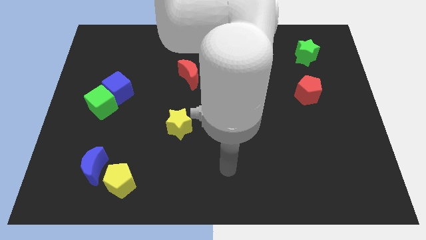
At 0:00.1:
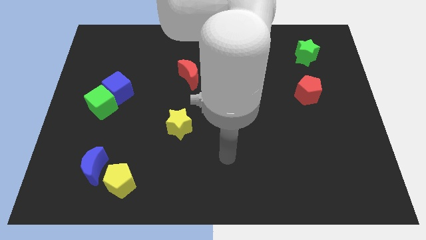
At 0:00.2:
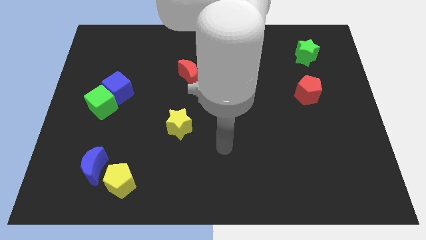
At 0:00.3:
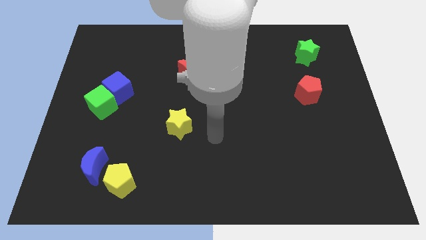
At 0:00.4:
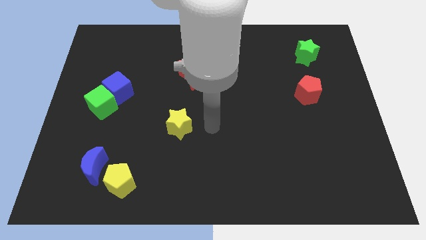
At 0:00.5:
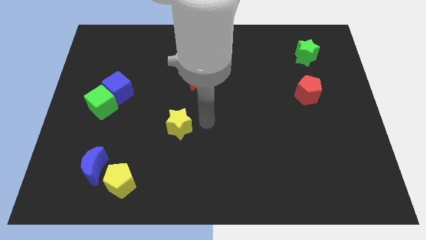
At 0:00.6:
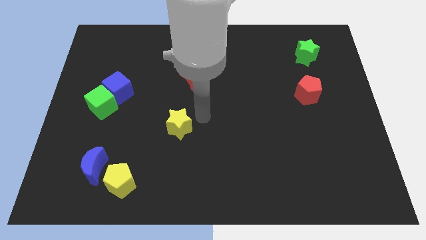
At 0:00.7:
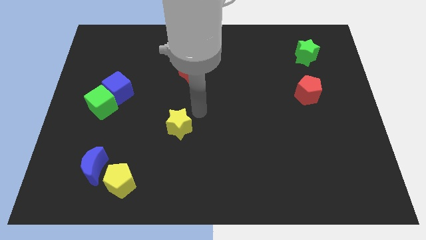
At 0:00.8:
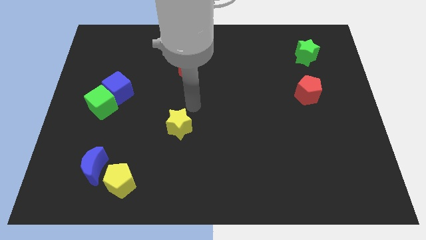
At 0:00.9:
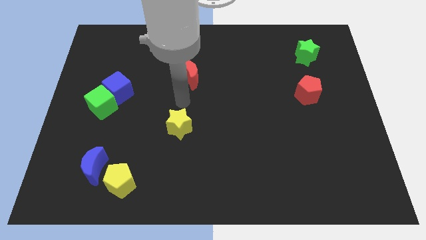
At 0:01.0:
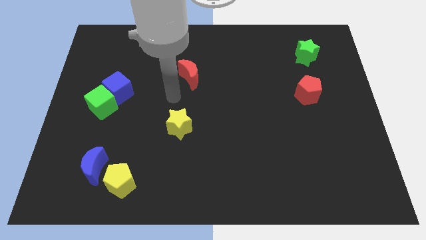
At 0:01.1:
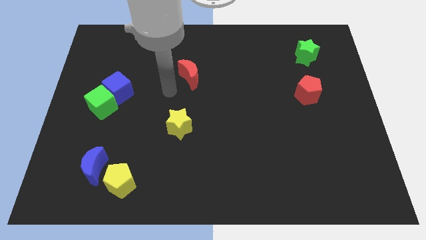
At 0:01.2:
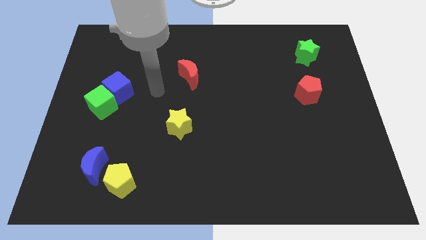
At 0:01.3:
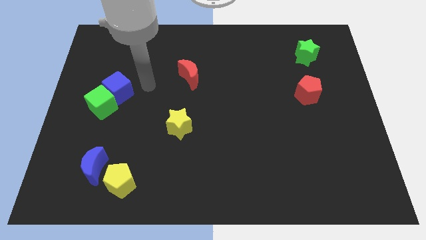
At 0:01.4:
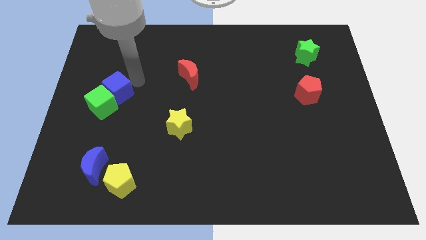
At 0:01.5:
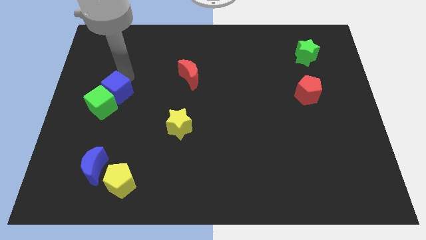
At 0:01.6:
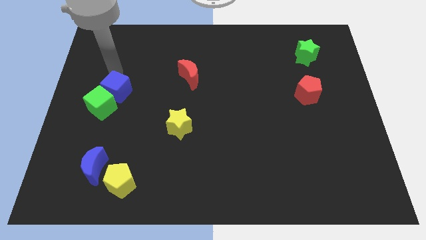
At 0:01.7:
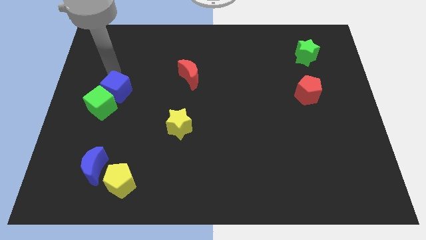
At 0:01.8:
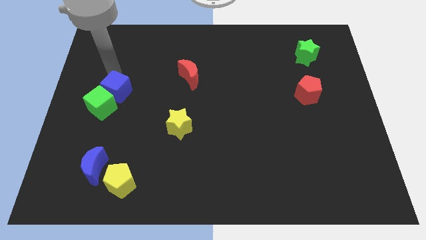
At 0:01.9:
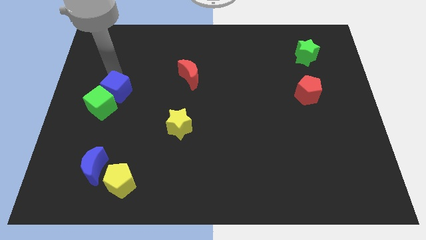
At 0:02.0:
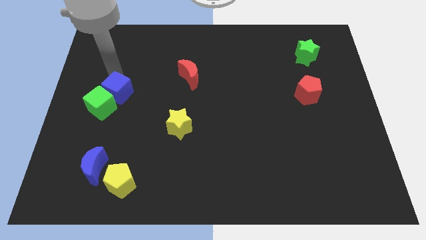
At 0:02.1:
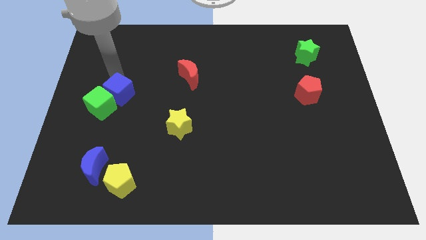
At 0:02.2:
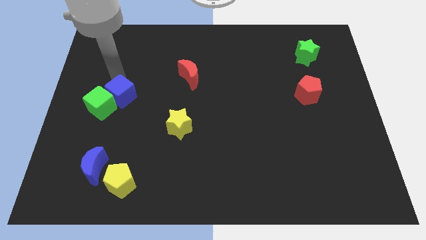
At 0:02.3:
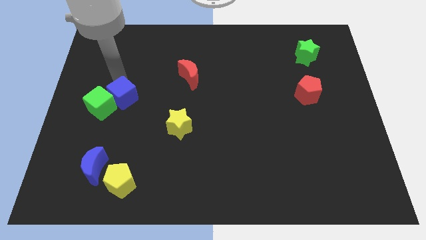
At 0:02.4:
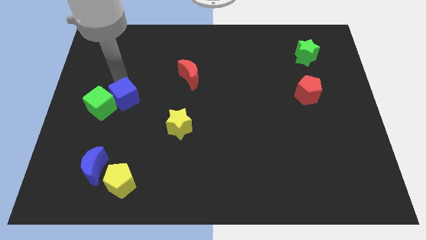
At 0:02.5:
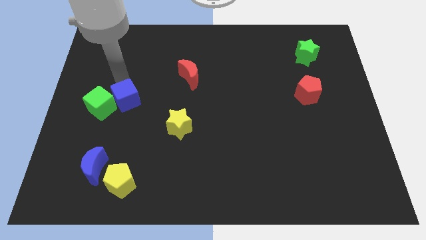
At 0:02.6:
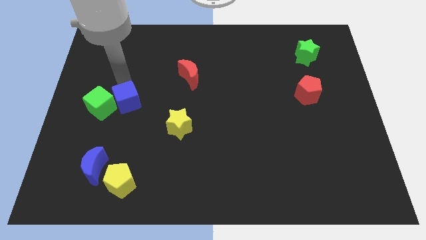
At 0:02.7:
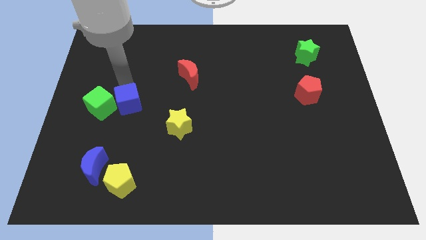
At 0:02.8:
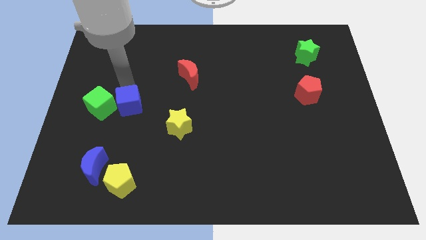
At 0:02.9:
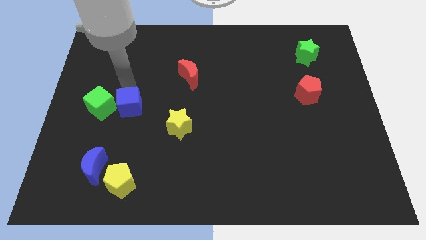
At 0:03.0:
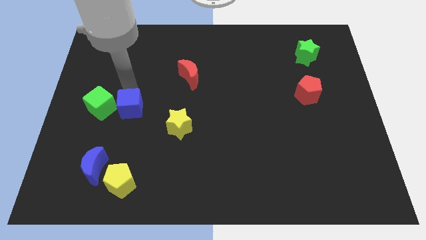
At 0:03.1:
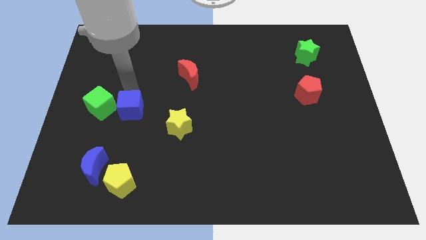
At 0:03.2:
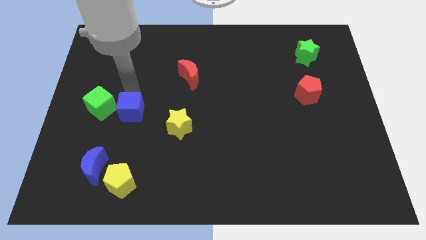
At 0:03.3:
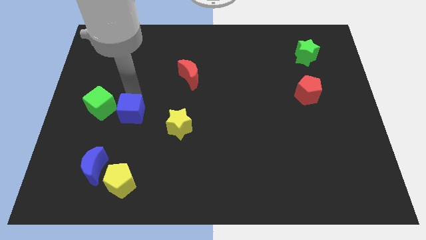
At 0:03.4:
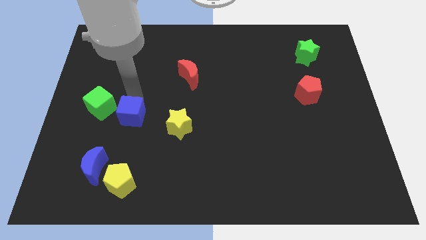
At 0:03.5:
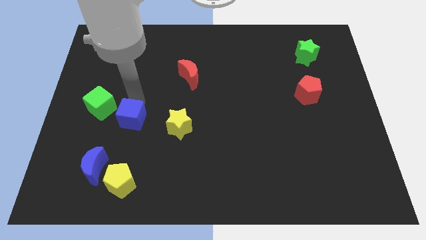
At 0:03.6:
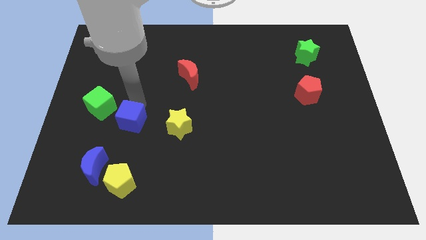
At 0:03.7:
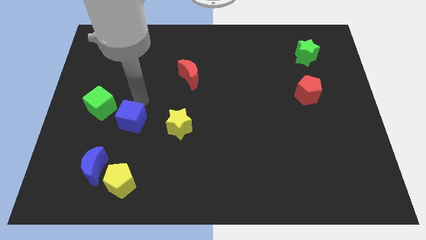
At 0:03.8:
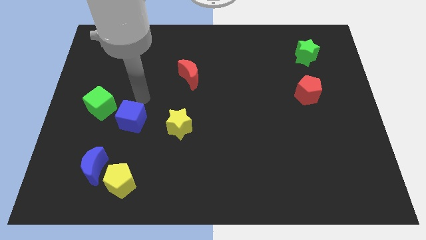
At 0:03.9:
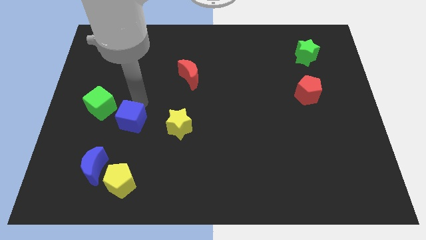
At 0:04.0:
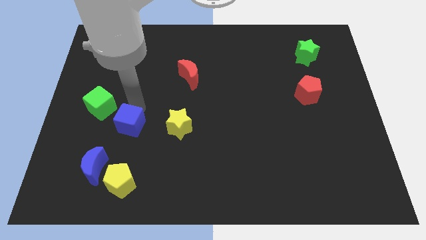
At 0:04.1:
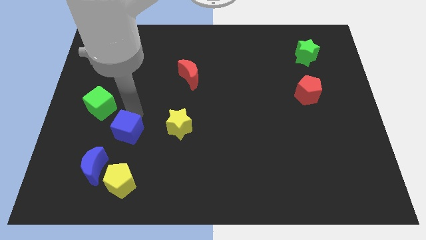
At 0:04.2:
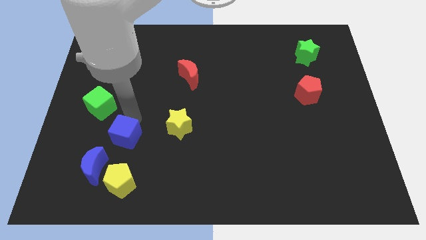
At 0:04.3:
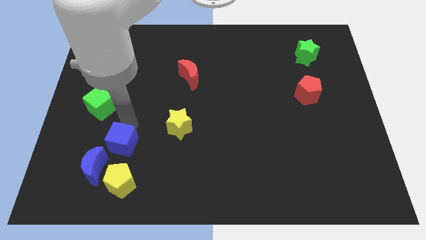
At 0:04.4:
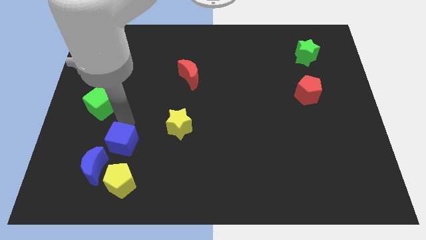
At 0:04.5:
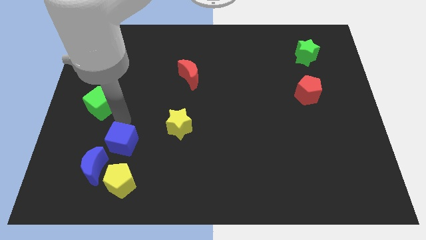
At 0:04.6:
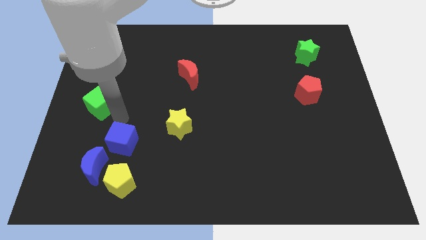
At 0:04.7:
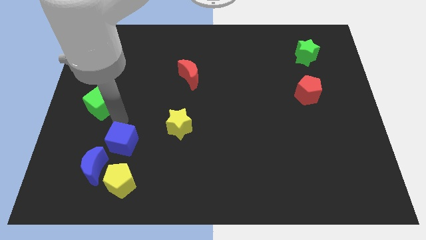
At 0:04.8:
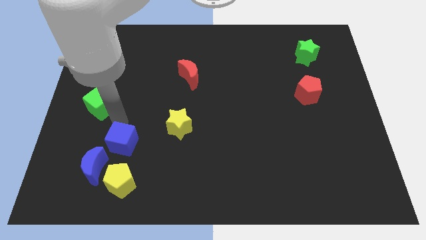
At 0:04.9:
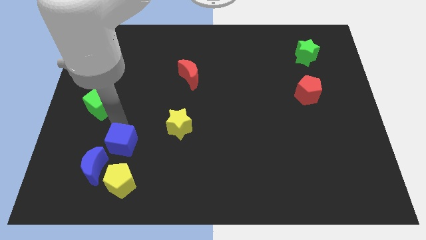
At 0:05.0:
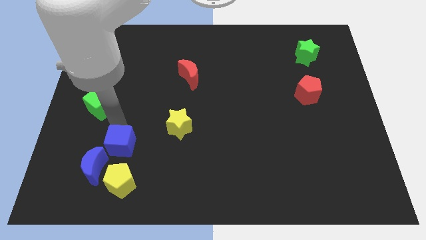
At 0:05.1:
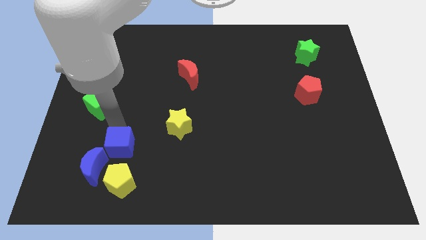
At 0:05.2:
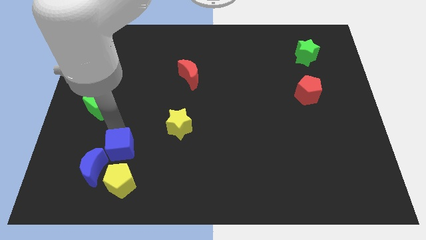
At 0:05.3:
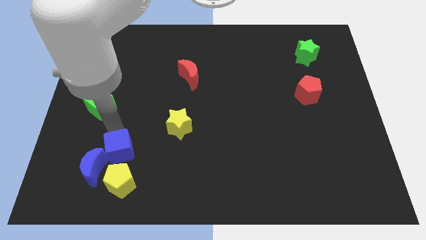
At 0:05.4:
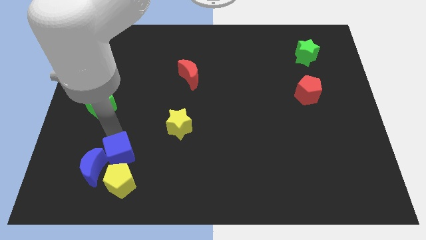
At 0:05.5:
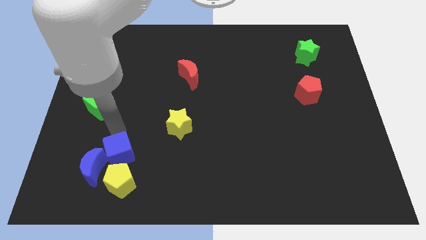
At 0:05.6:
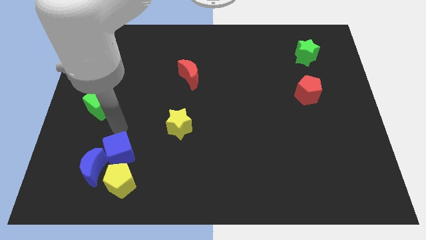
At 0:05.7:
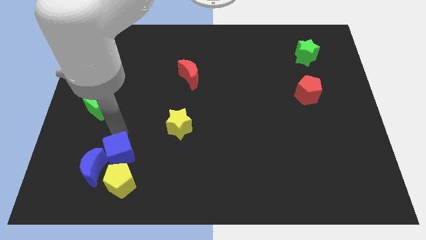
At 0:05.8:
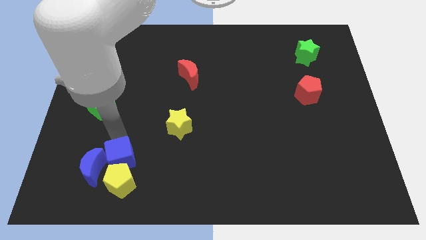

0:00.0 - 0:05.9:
slide the blue cube towards the yellow pentagon

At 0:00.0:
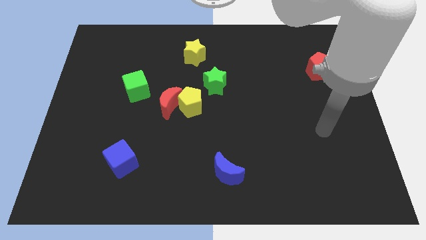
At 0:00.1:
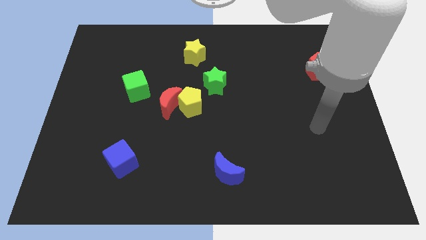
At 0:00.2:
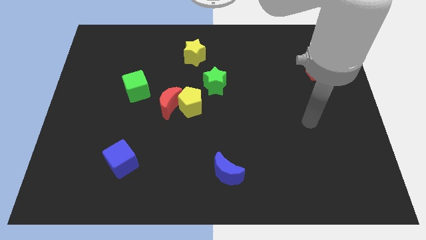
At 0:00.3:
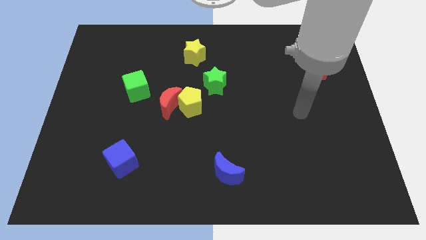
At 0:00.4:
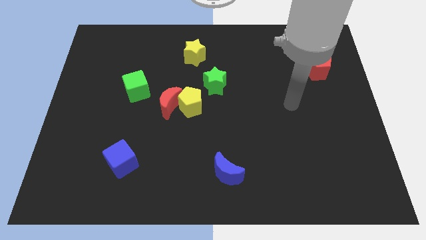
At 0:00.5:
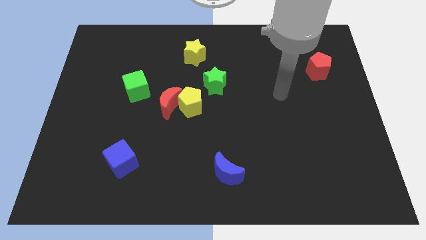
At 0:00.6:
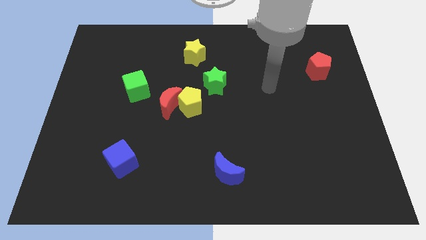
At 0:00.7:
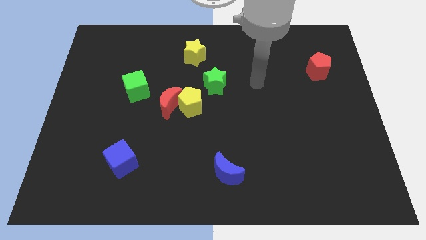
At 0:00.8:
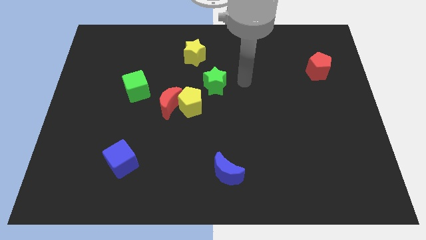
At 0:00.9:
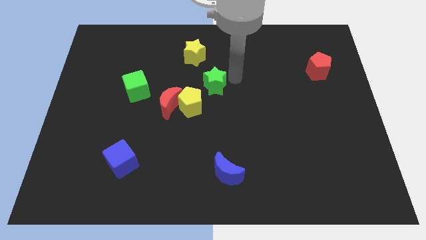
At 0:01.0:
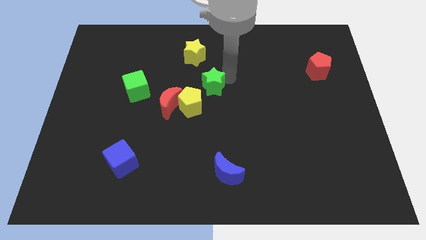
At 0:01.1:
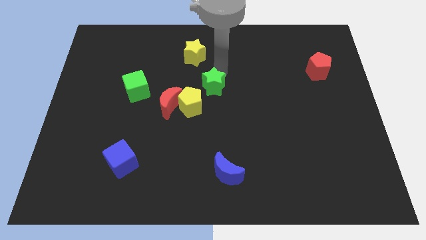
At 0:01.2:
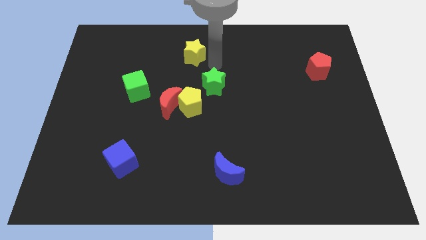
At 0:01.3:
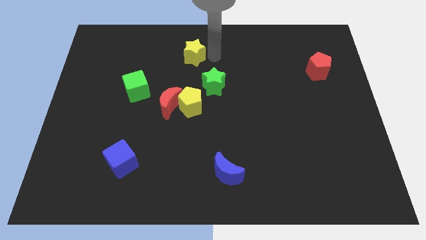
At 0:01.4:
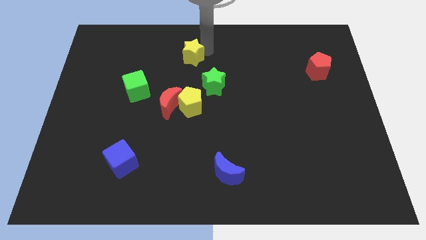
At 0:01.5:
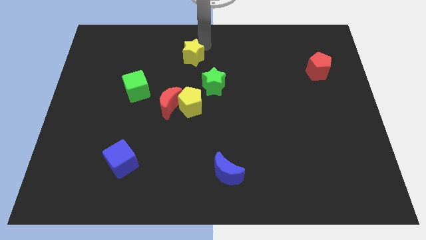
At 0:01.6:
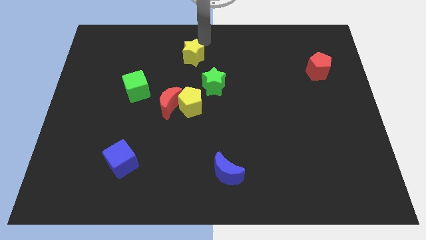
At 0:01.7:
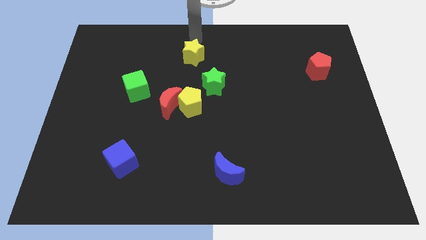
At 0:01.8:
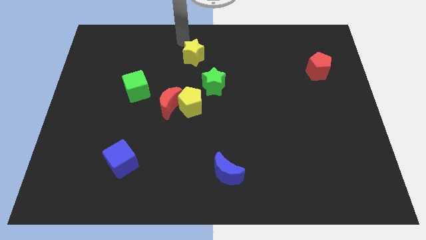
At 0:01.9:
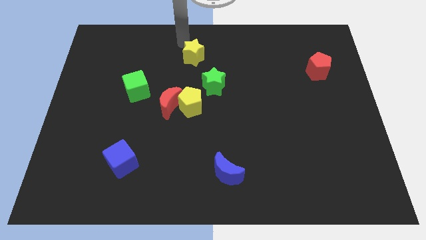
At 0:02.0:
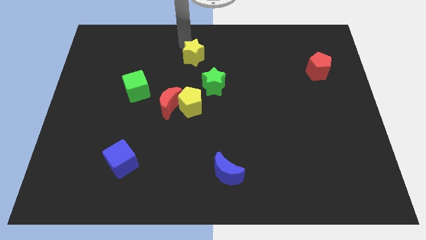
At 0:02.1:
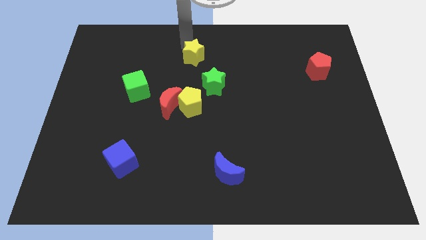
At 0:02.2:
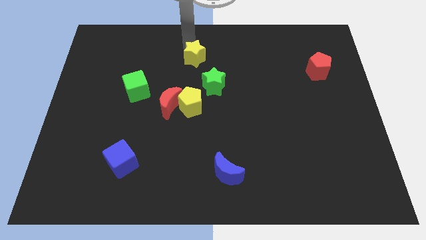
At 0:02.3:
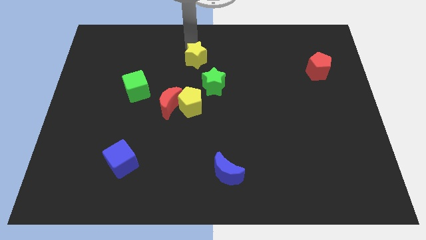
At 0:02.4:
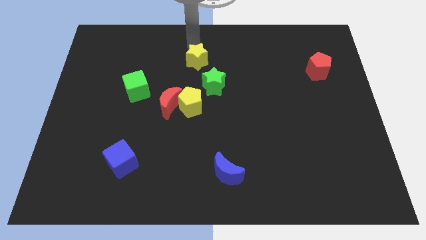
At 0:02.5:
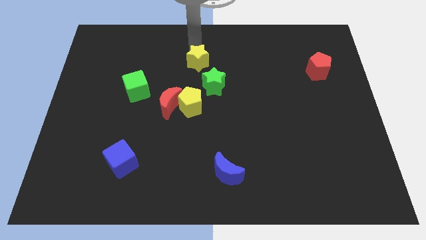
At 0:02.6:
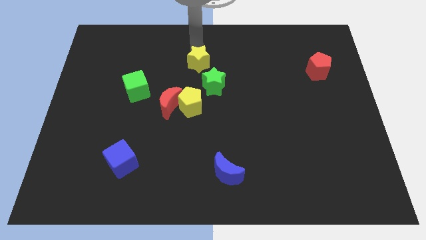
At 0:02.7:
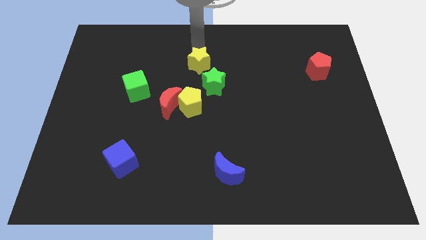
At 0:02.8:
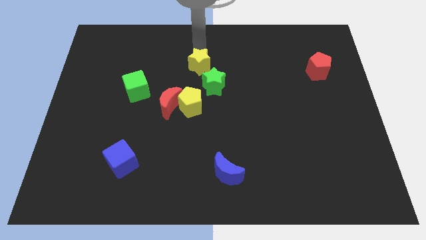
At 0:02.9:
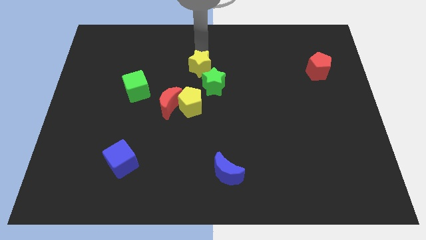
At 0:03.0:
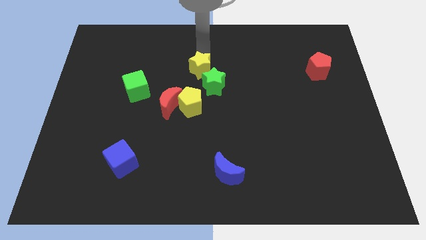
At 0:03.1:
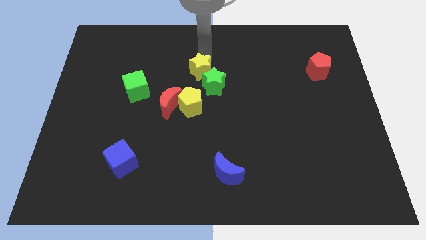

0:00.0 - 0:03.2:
put the yellow star to the green star
